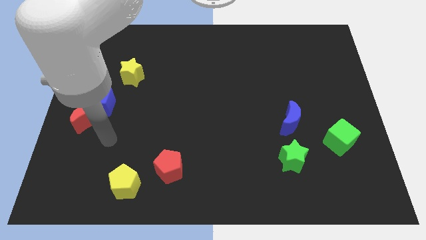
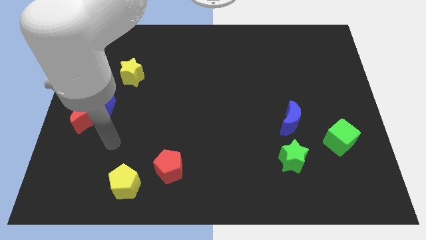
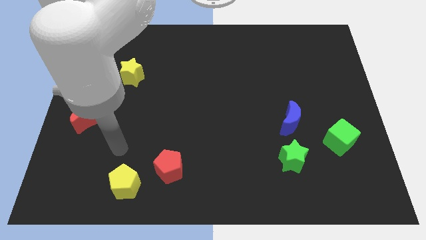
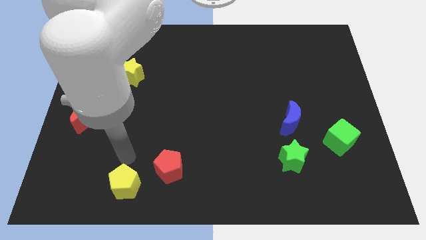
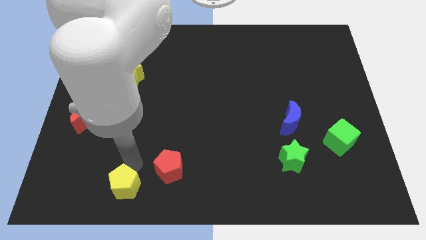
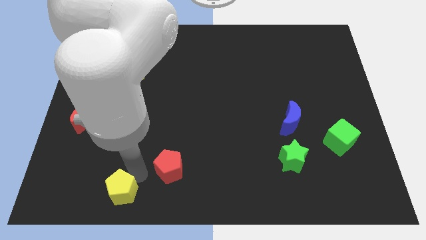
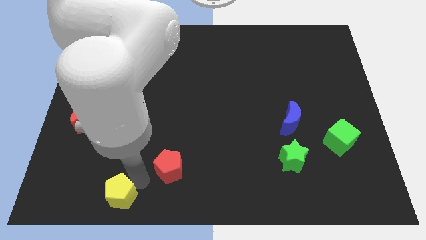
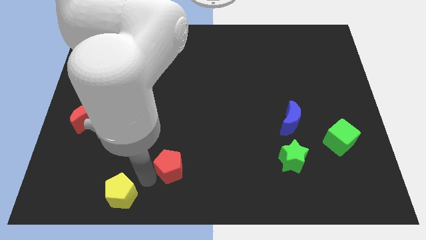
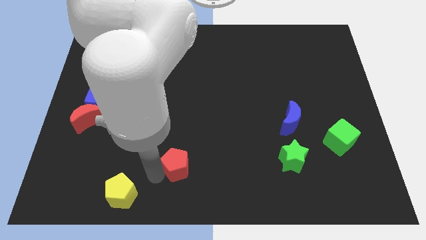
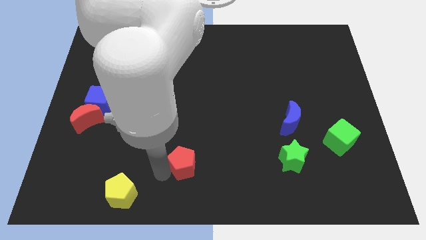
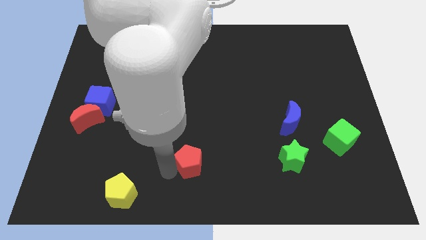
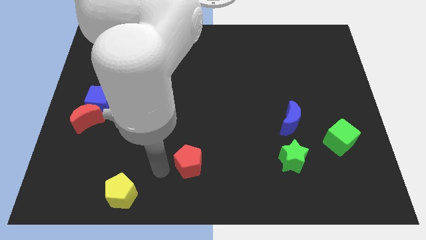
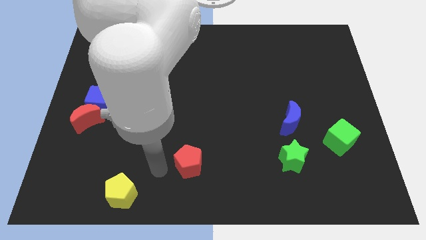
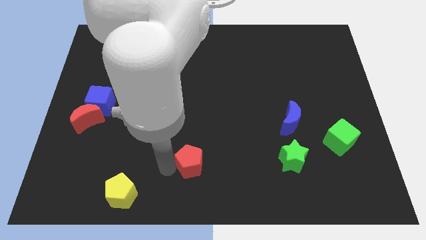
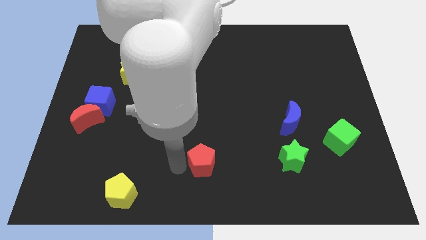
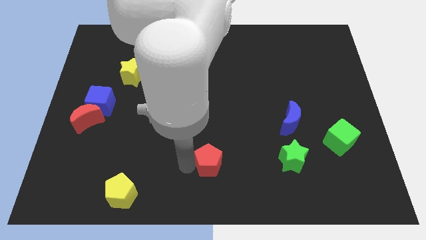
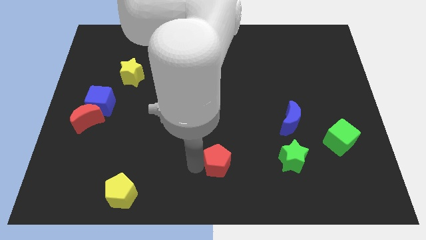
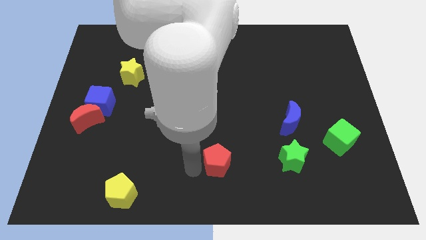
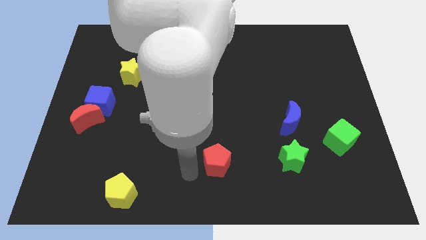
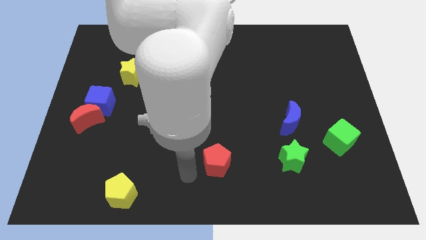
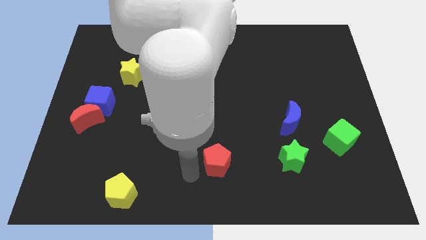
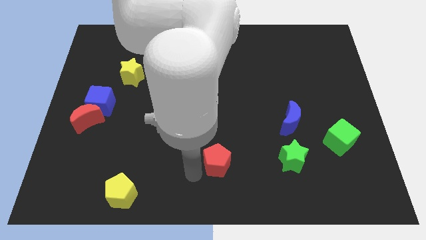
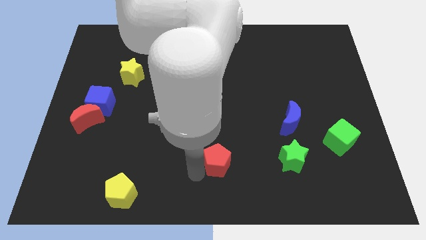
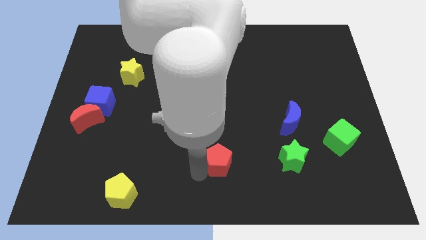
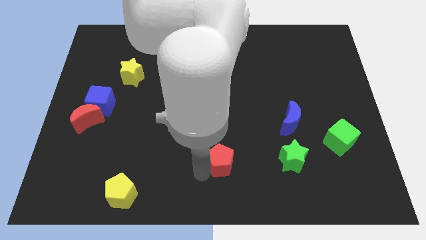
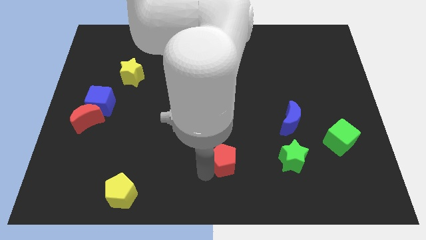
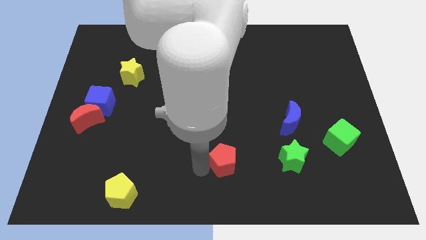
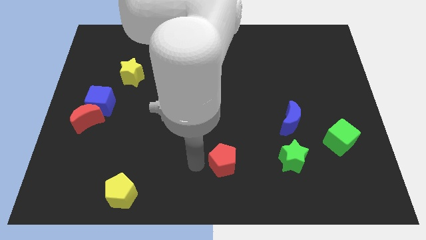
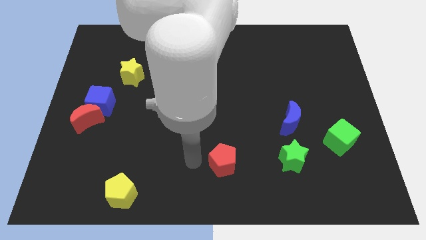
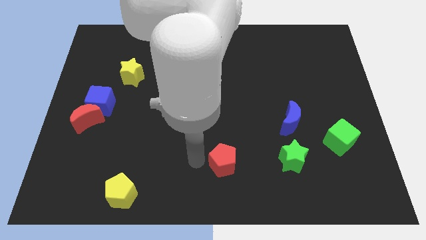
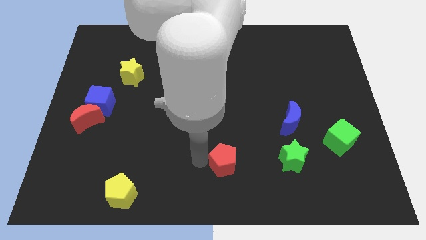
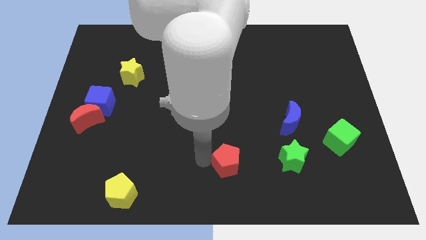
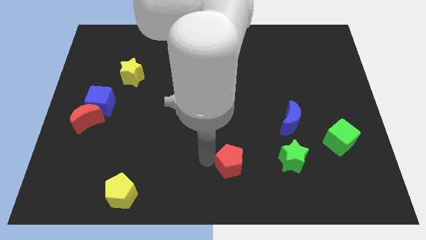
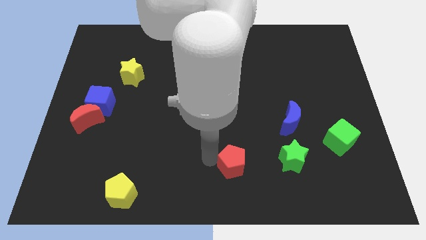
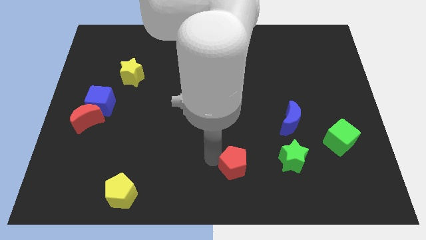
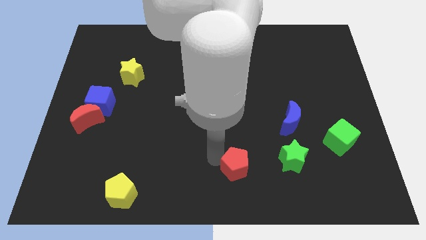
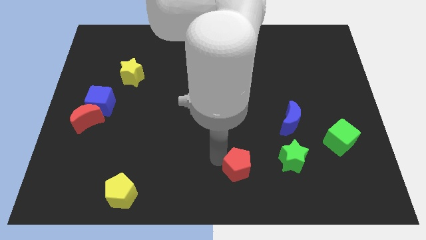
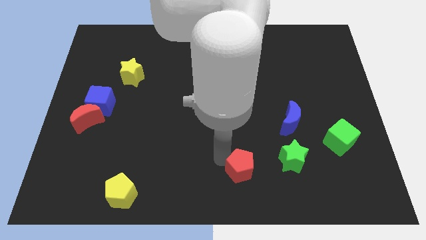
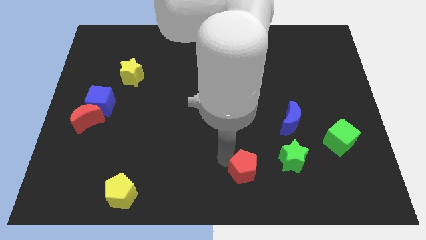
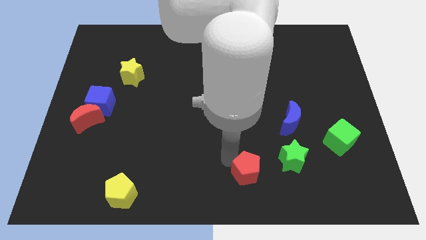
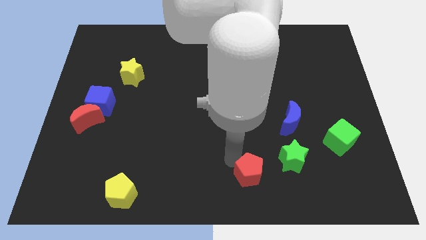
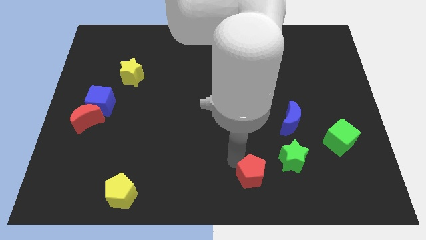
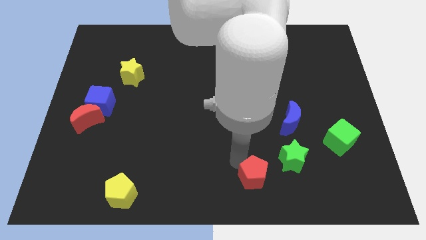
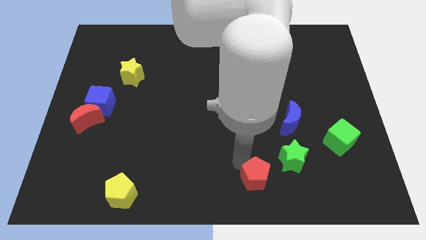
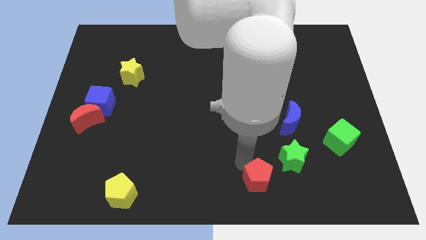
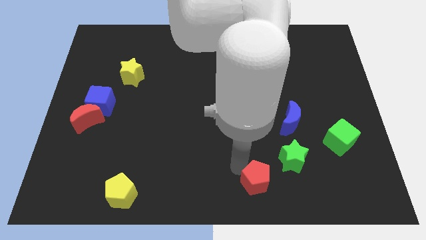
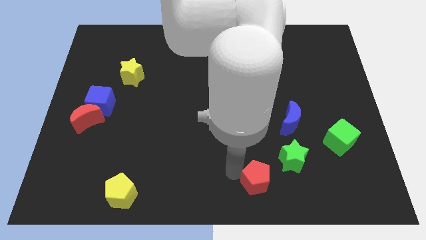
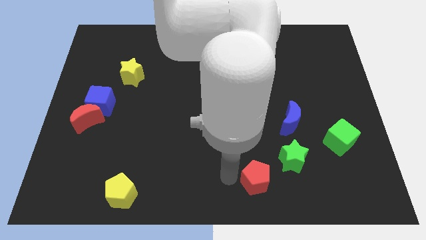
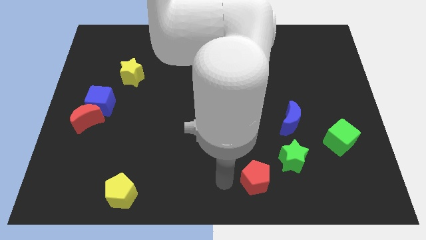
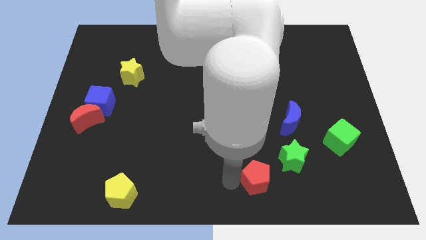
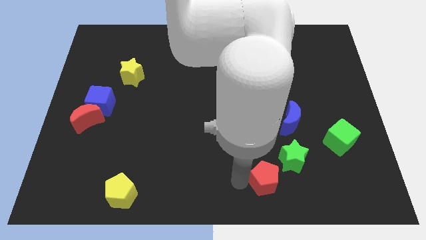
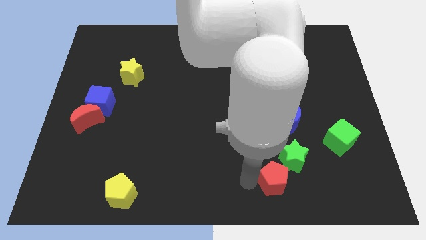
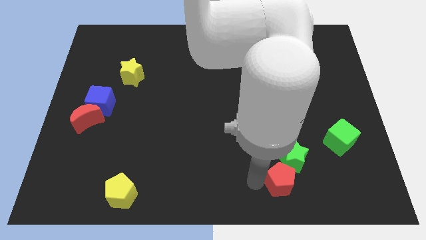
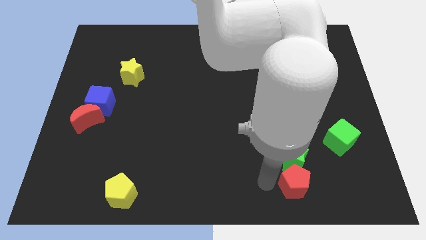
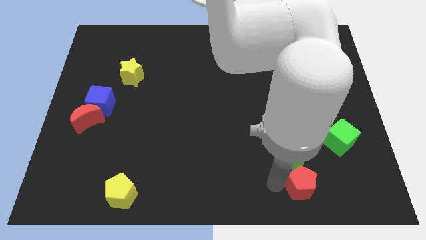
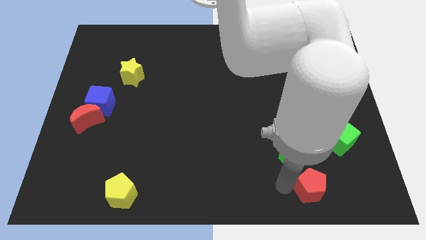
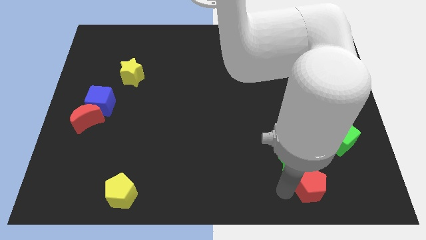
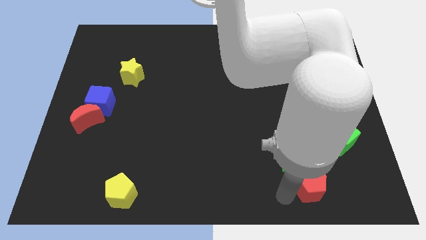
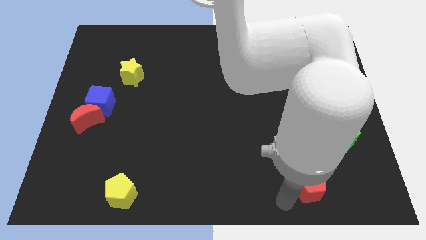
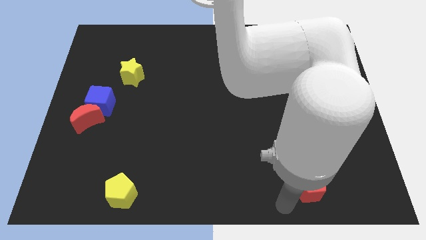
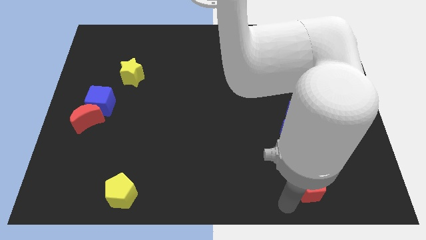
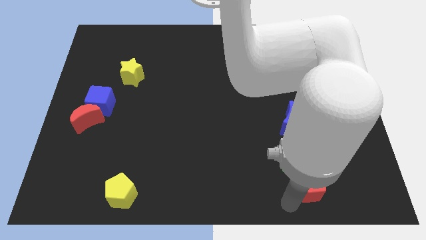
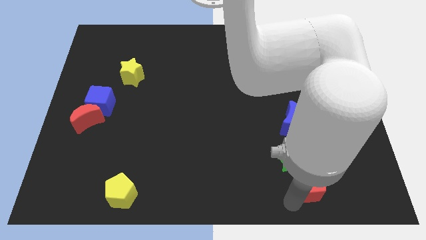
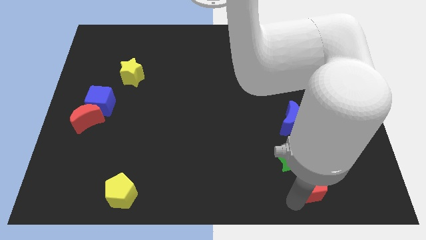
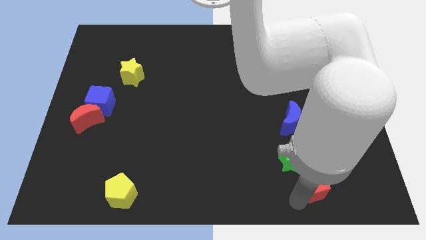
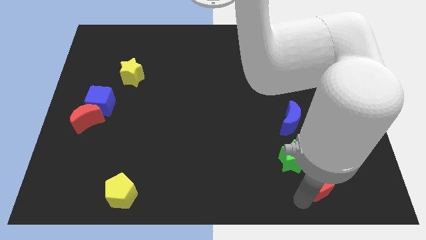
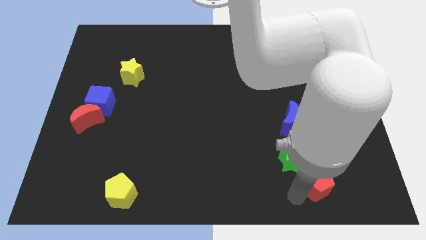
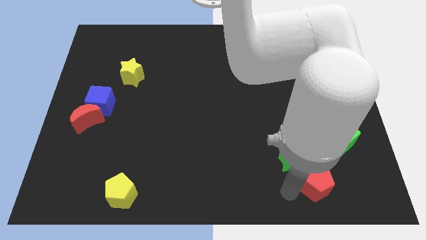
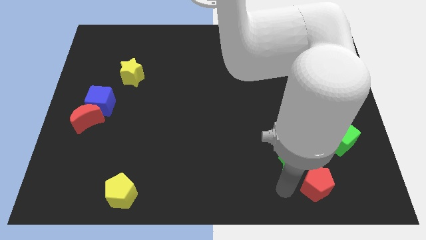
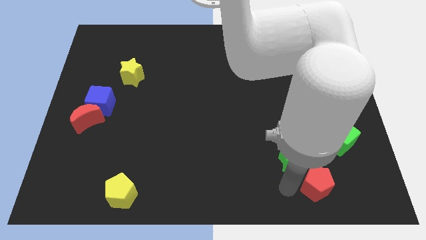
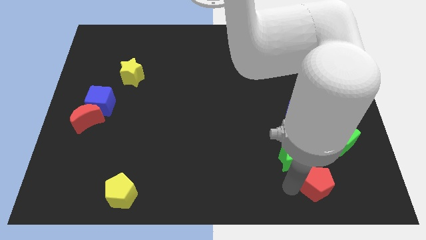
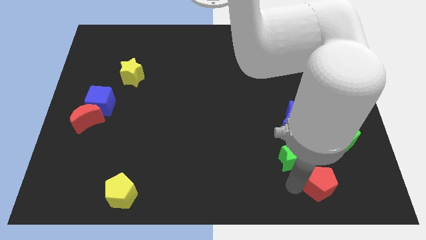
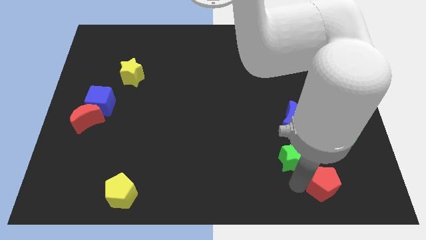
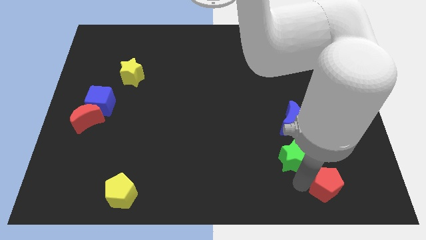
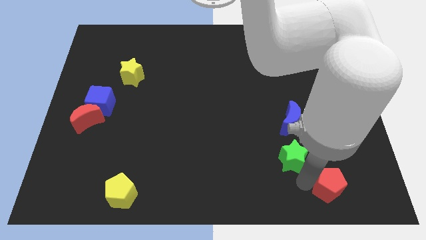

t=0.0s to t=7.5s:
put the red pentagon below the green cube
